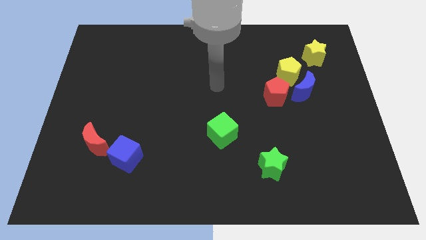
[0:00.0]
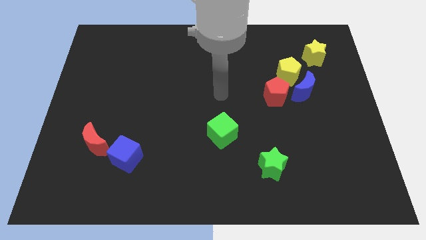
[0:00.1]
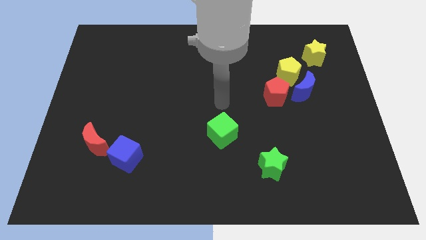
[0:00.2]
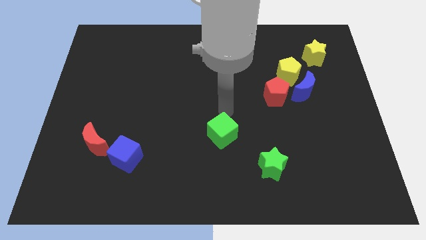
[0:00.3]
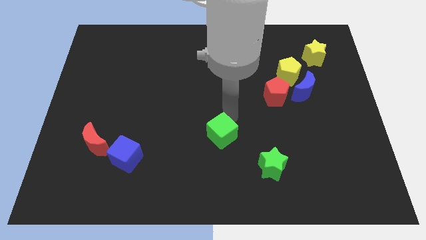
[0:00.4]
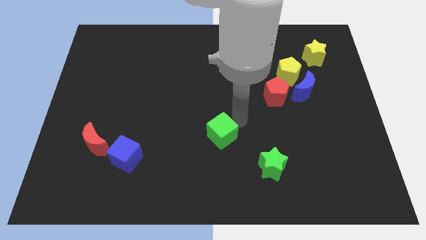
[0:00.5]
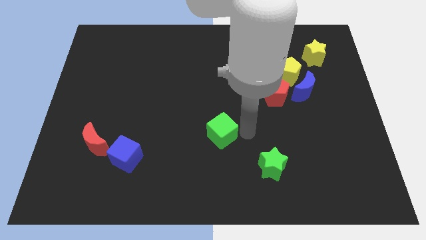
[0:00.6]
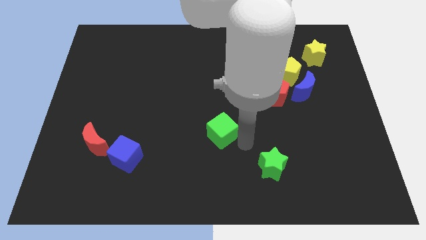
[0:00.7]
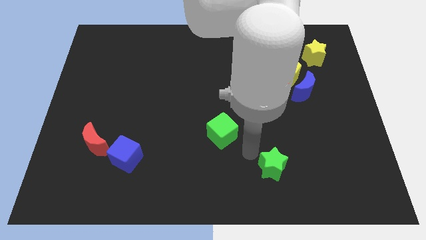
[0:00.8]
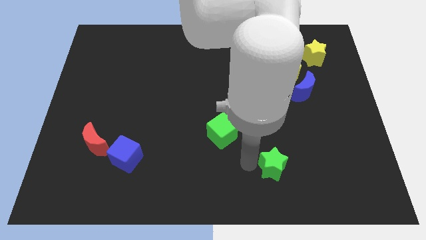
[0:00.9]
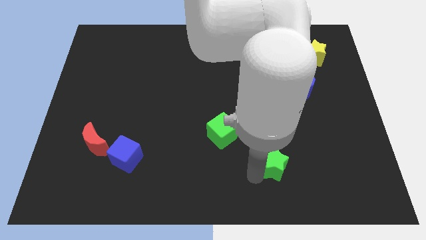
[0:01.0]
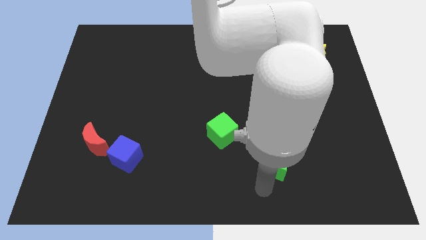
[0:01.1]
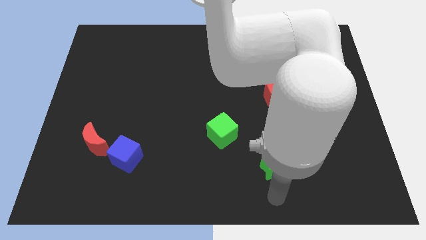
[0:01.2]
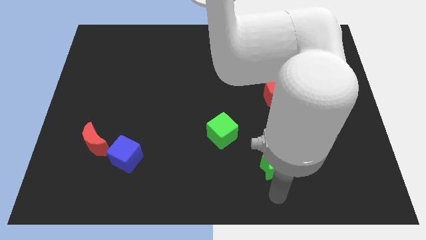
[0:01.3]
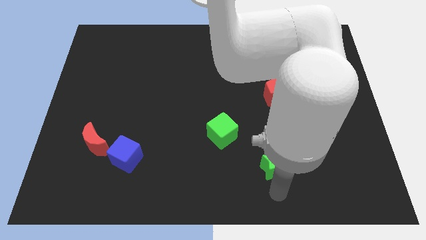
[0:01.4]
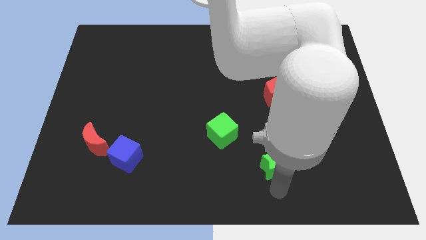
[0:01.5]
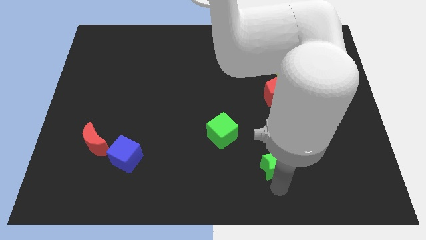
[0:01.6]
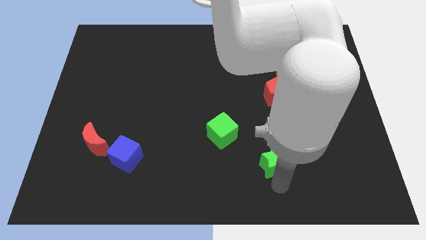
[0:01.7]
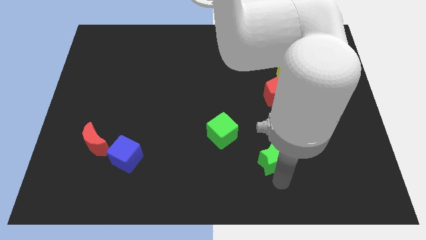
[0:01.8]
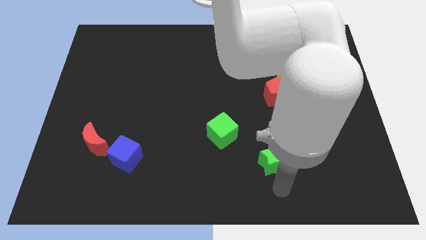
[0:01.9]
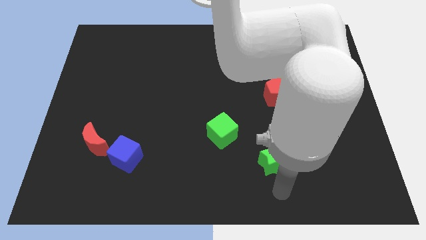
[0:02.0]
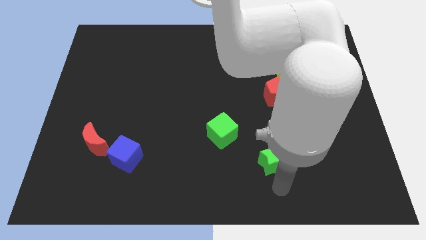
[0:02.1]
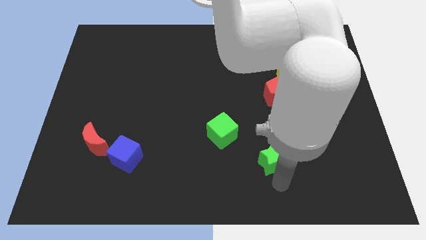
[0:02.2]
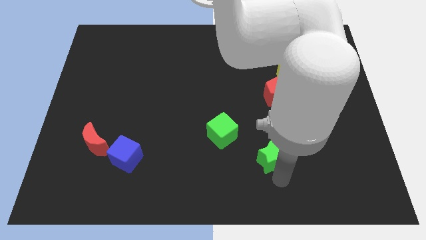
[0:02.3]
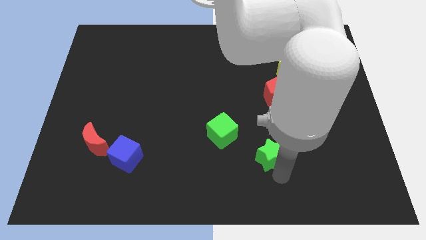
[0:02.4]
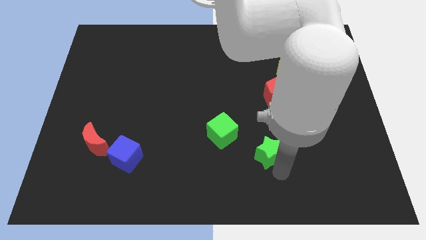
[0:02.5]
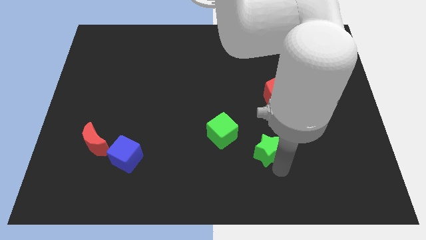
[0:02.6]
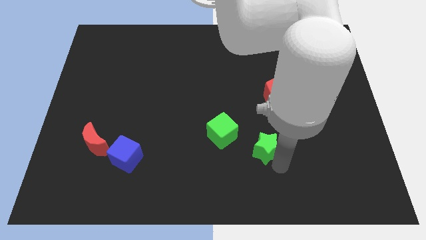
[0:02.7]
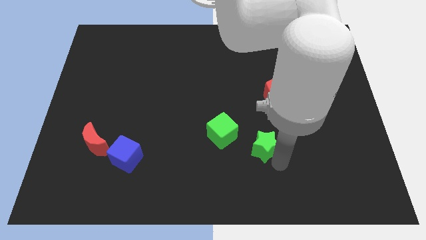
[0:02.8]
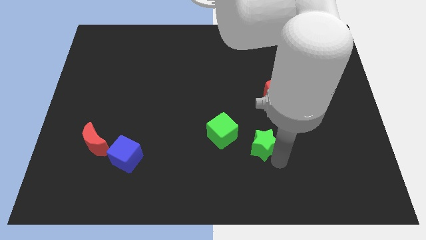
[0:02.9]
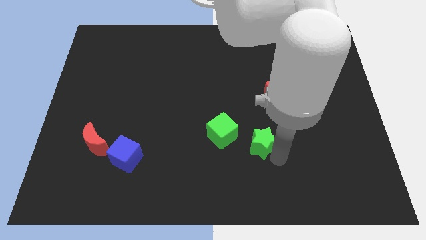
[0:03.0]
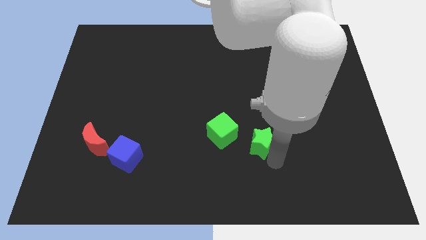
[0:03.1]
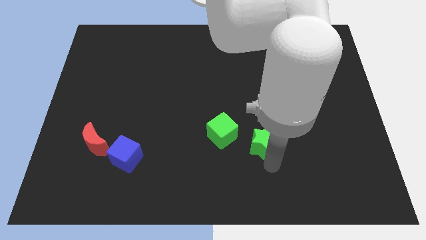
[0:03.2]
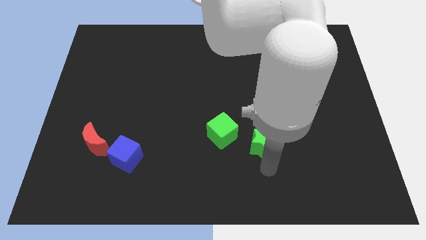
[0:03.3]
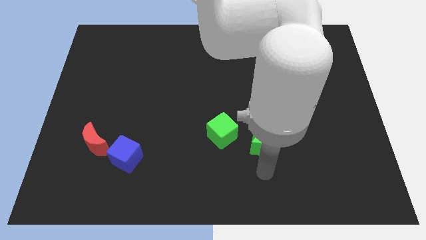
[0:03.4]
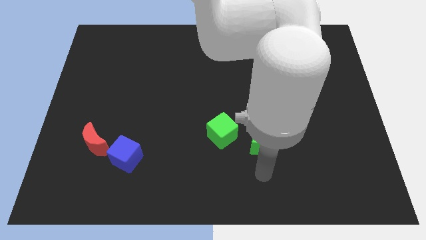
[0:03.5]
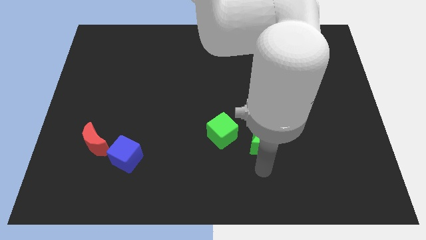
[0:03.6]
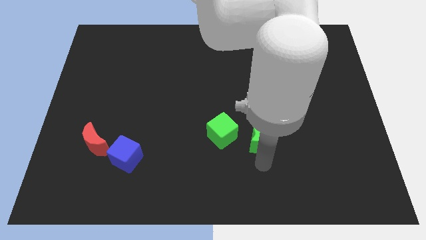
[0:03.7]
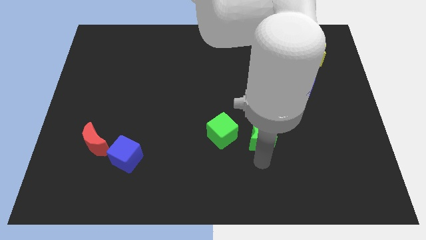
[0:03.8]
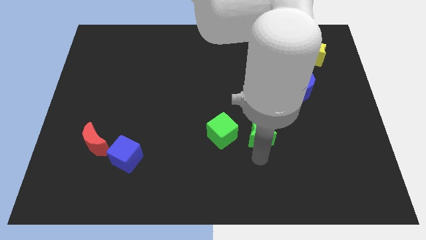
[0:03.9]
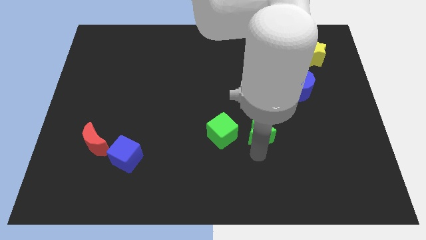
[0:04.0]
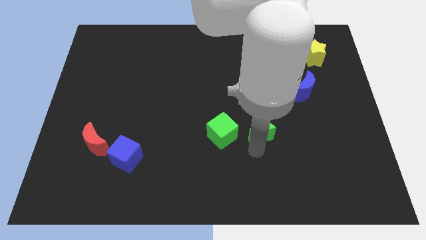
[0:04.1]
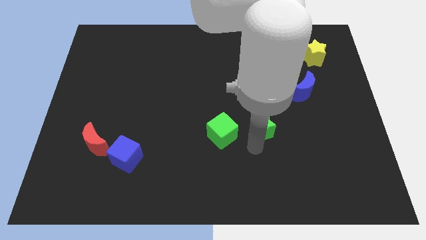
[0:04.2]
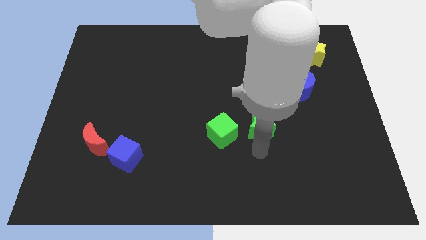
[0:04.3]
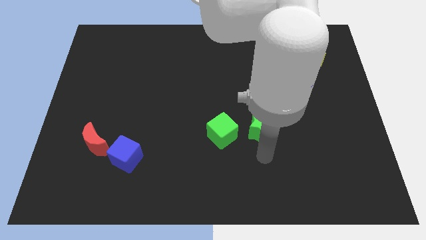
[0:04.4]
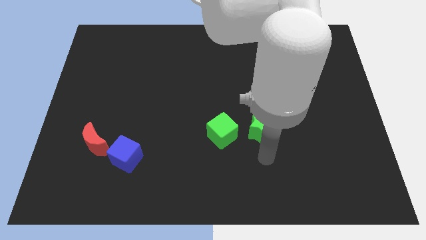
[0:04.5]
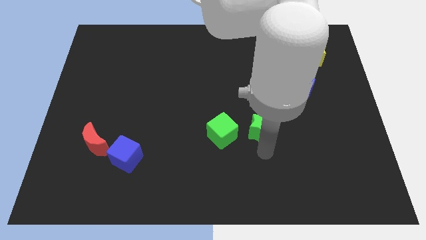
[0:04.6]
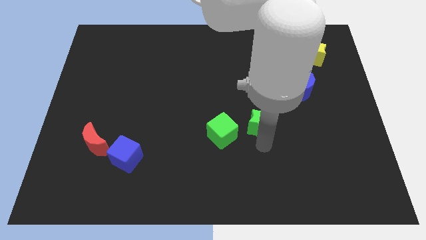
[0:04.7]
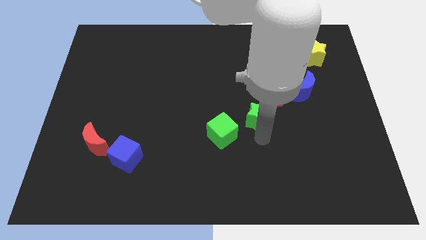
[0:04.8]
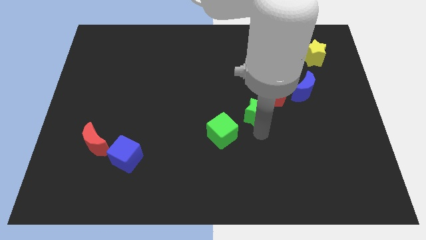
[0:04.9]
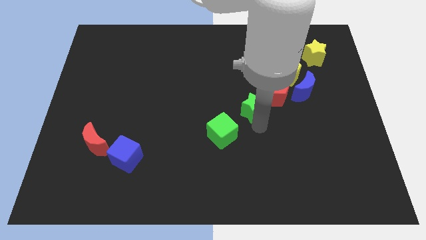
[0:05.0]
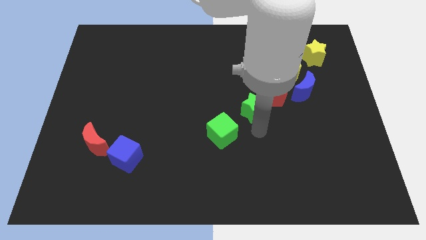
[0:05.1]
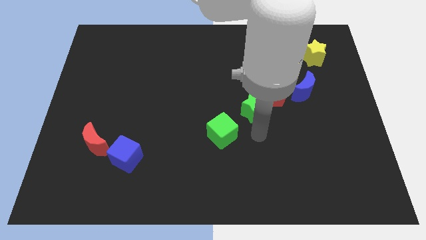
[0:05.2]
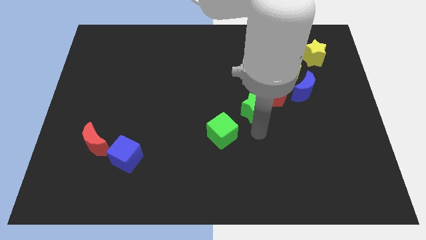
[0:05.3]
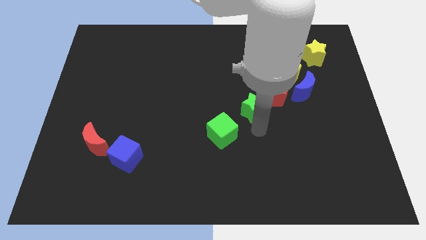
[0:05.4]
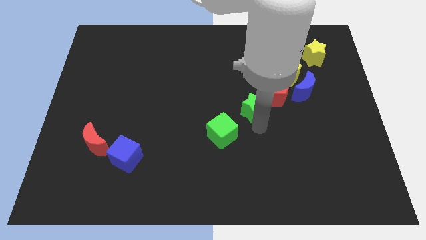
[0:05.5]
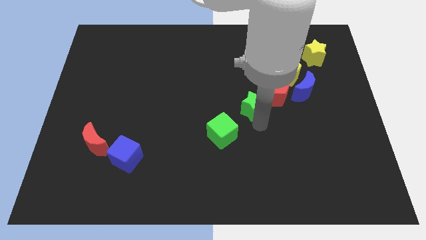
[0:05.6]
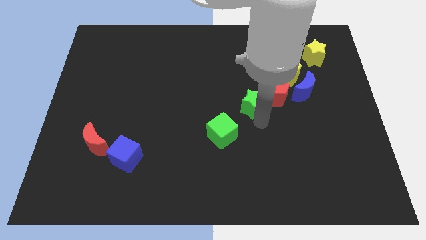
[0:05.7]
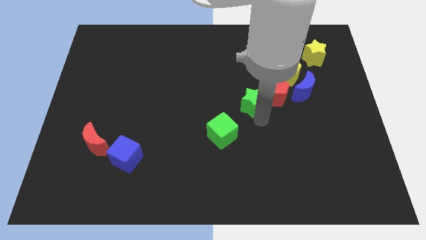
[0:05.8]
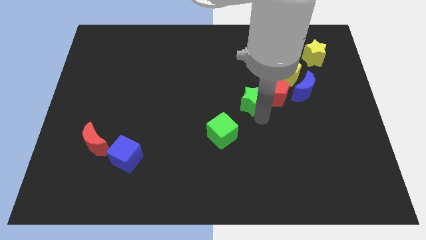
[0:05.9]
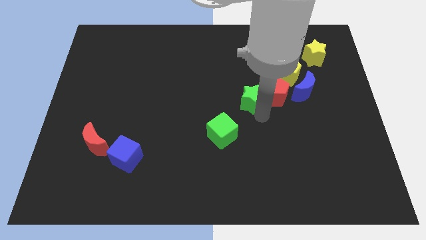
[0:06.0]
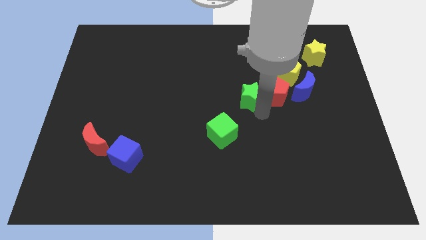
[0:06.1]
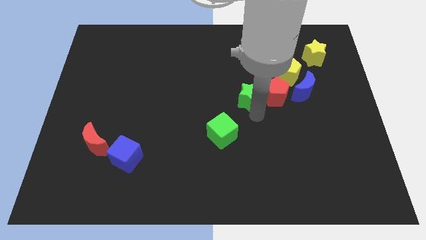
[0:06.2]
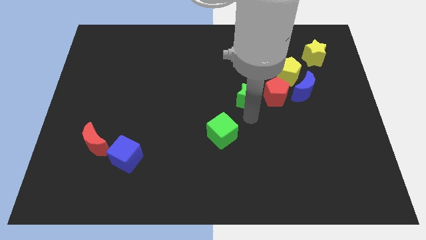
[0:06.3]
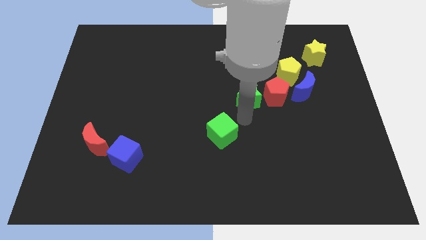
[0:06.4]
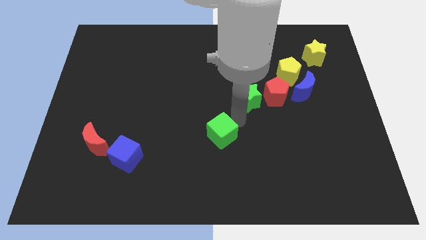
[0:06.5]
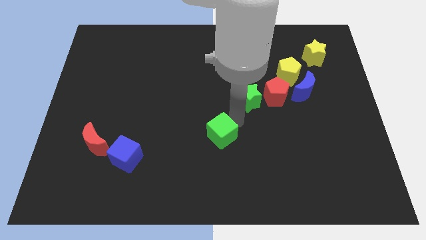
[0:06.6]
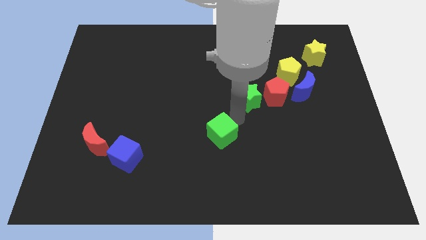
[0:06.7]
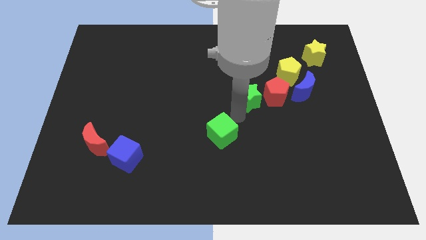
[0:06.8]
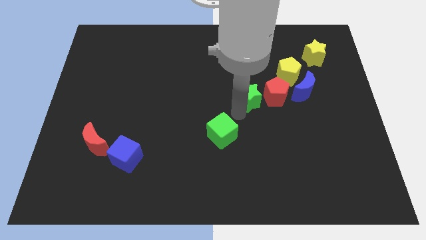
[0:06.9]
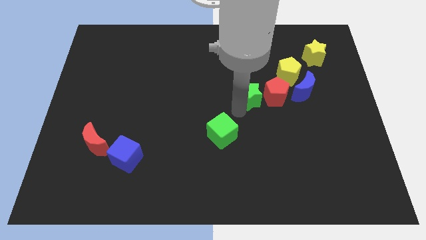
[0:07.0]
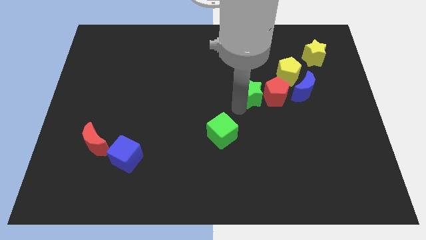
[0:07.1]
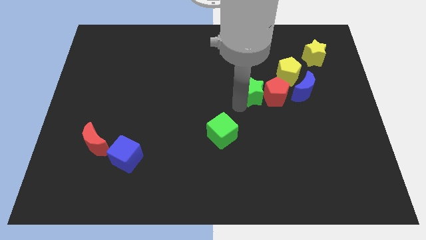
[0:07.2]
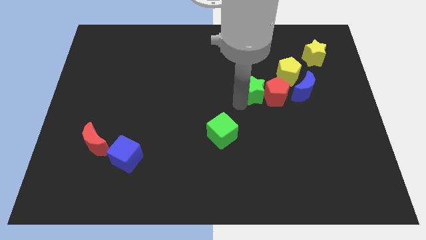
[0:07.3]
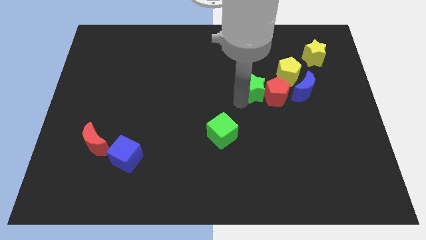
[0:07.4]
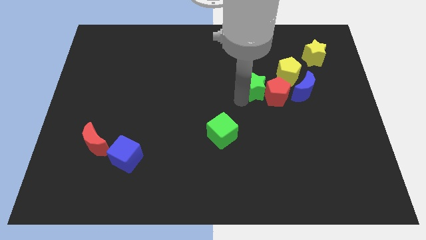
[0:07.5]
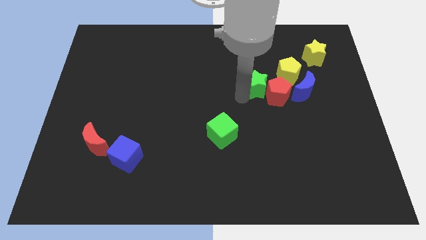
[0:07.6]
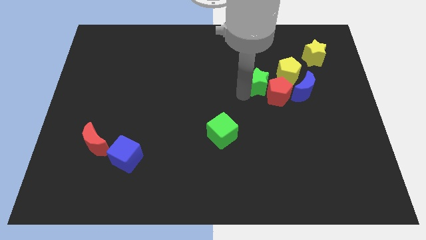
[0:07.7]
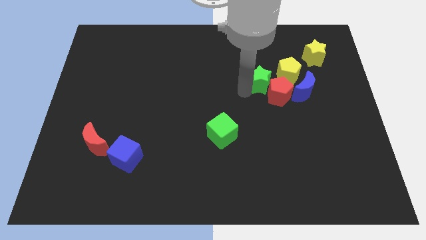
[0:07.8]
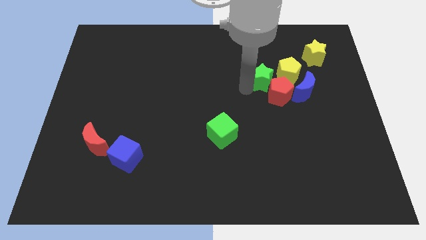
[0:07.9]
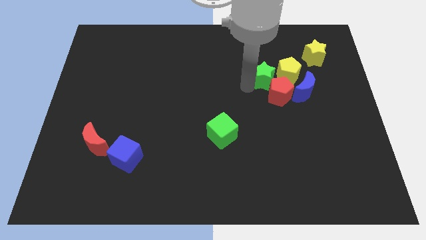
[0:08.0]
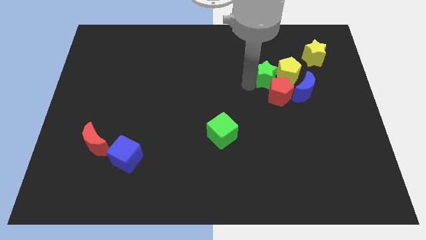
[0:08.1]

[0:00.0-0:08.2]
push the green star next to the yellow pentagon
